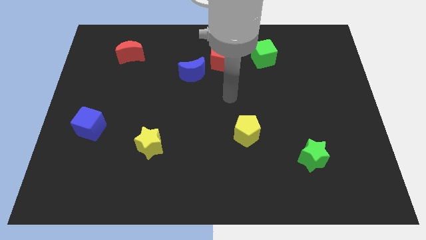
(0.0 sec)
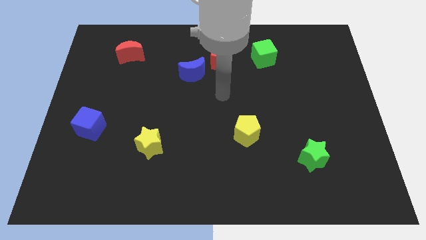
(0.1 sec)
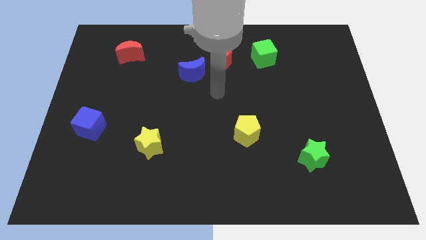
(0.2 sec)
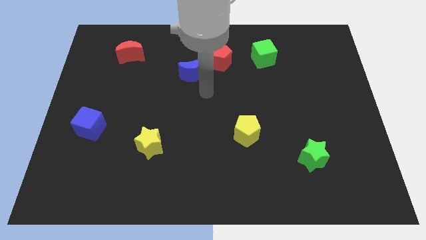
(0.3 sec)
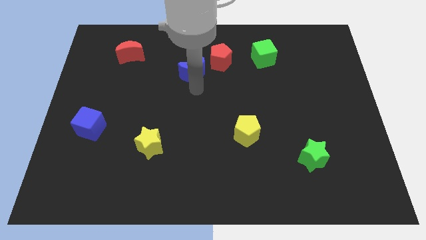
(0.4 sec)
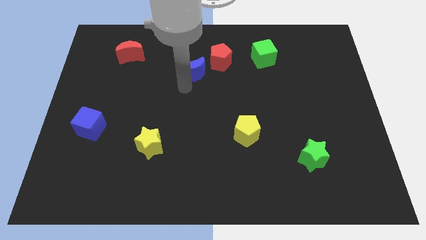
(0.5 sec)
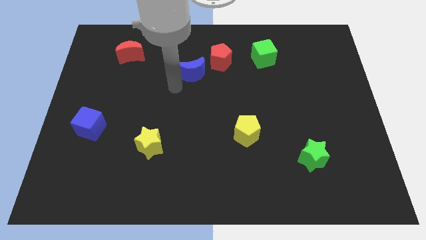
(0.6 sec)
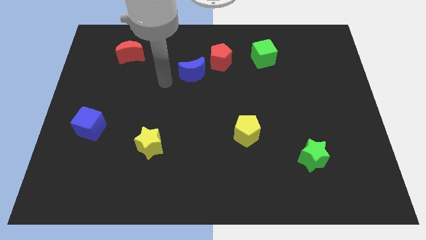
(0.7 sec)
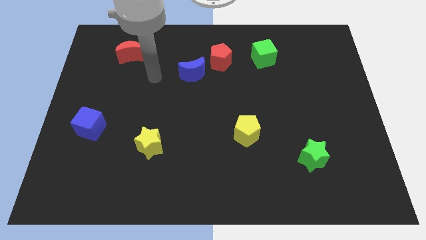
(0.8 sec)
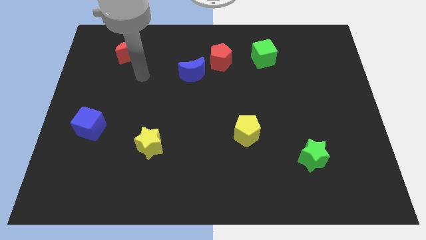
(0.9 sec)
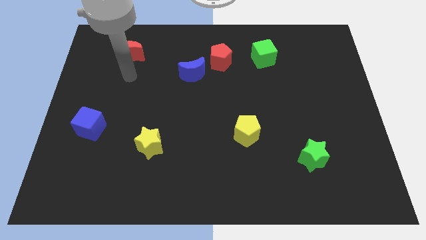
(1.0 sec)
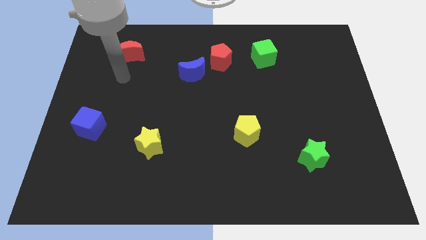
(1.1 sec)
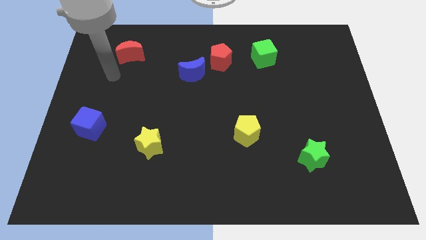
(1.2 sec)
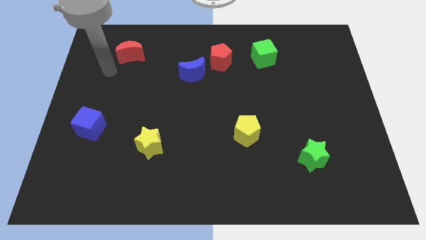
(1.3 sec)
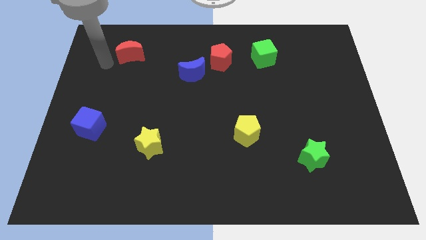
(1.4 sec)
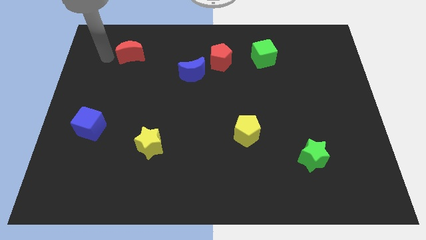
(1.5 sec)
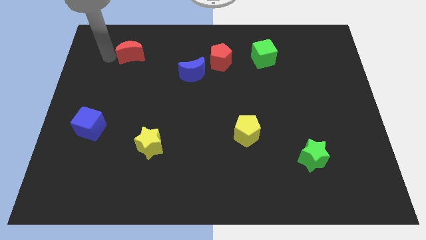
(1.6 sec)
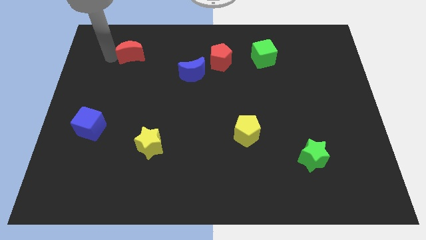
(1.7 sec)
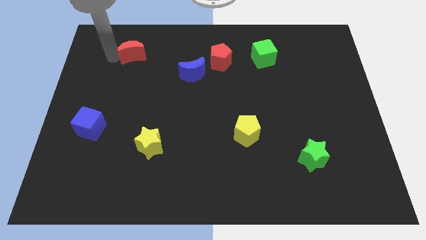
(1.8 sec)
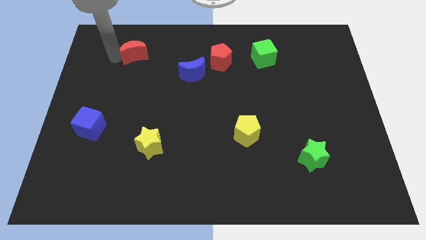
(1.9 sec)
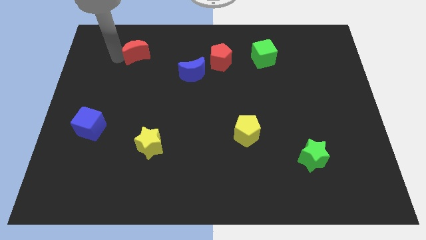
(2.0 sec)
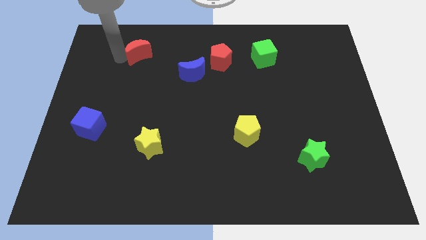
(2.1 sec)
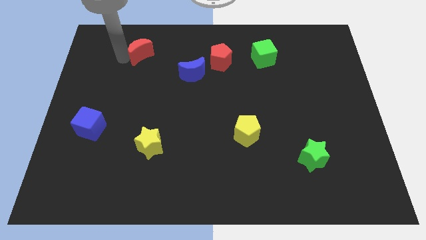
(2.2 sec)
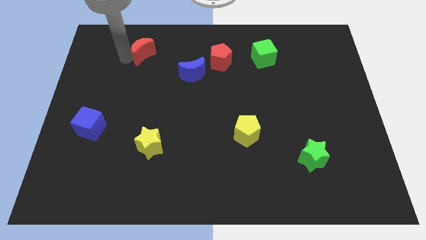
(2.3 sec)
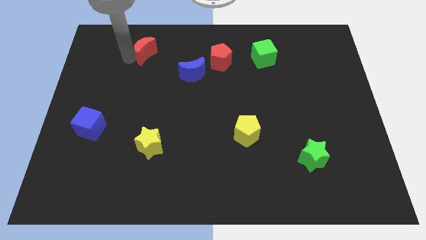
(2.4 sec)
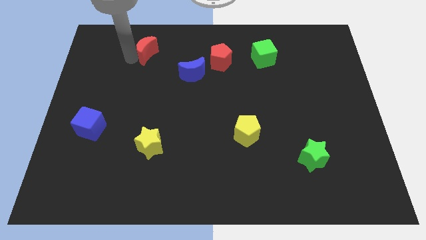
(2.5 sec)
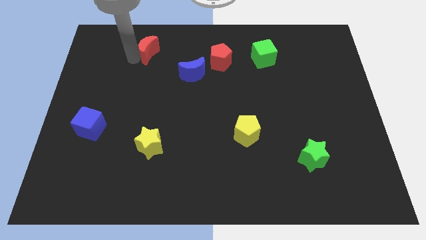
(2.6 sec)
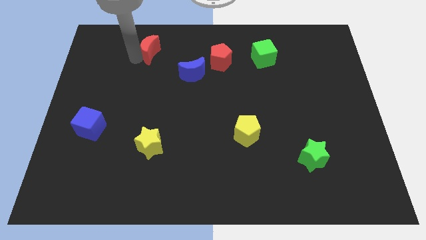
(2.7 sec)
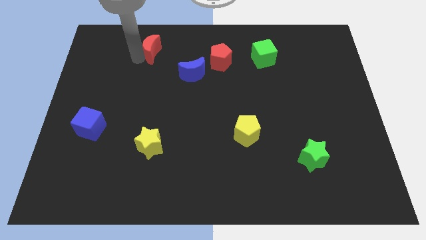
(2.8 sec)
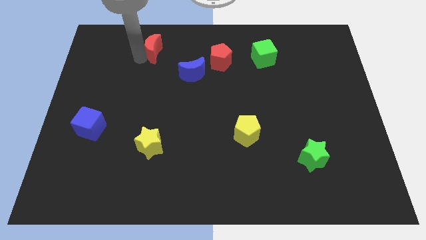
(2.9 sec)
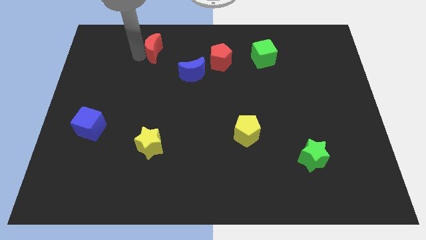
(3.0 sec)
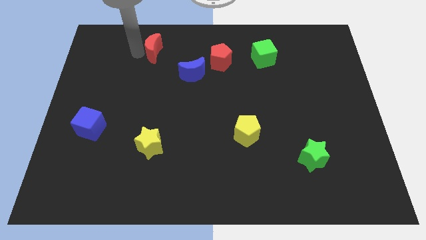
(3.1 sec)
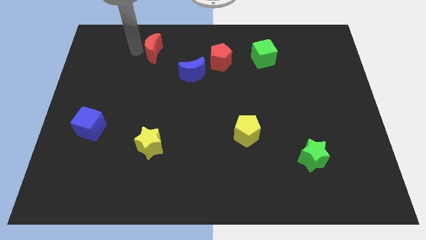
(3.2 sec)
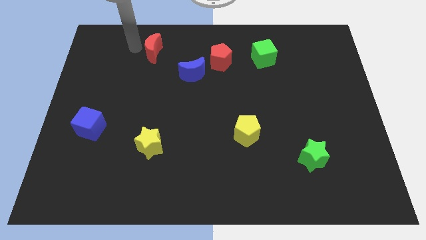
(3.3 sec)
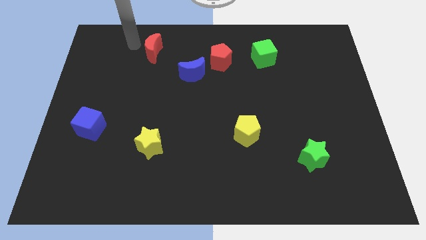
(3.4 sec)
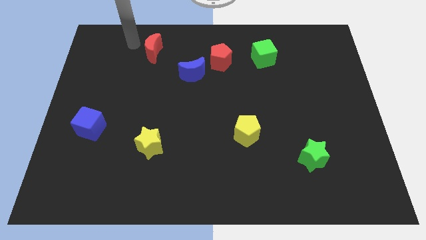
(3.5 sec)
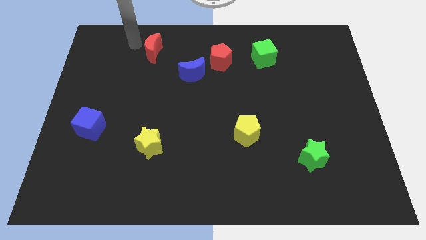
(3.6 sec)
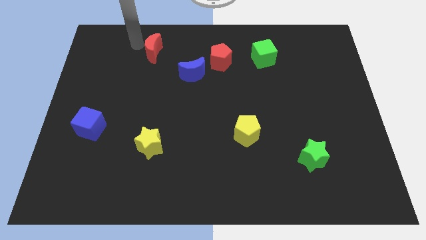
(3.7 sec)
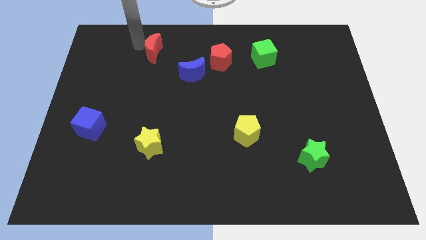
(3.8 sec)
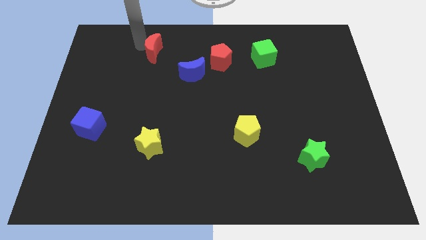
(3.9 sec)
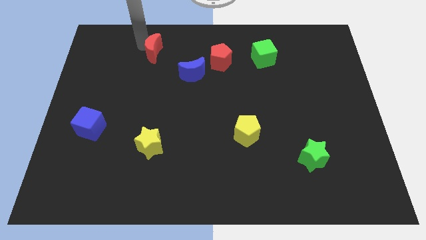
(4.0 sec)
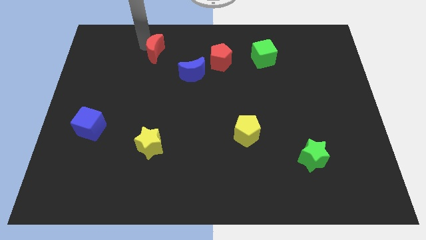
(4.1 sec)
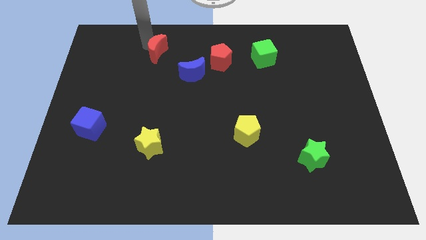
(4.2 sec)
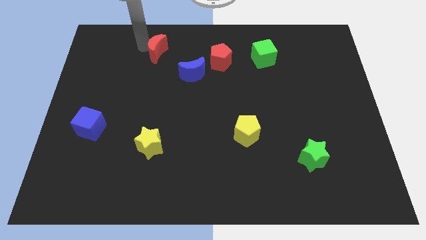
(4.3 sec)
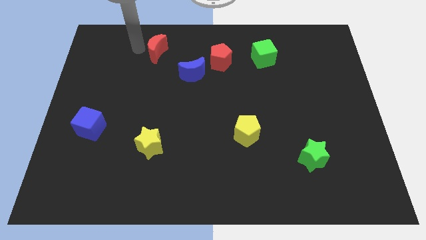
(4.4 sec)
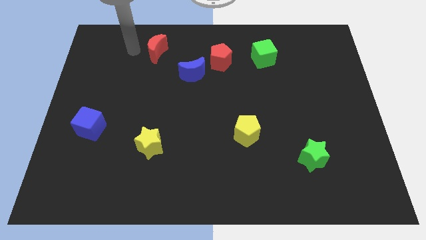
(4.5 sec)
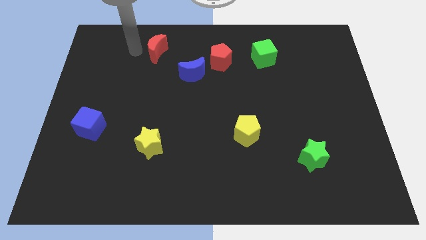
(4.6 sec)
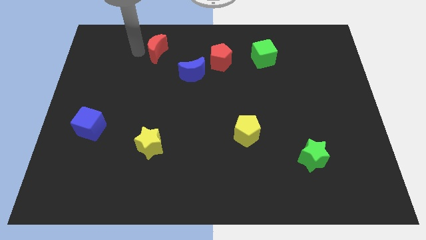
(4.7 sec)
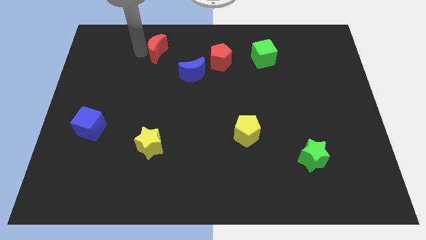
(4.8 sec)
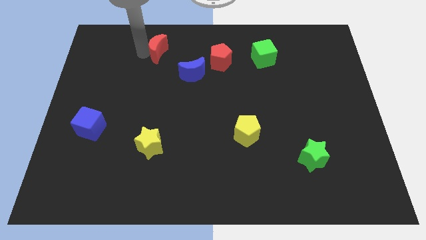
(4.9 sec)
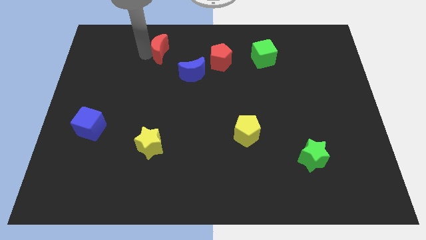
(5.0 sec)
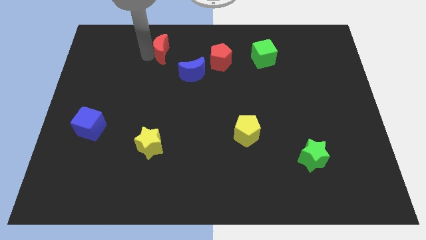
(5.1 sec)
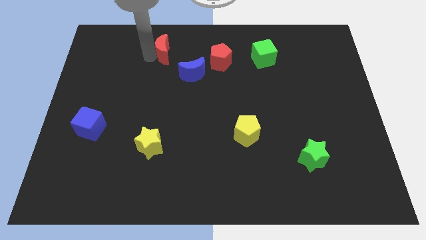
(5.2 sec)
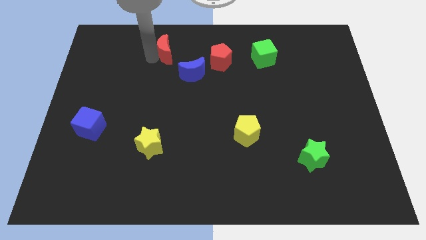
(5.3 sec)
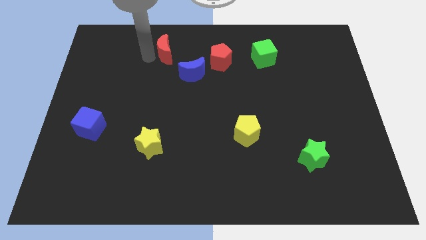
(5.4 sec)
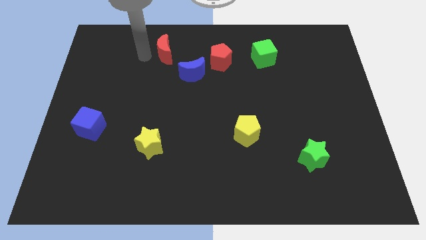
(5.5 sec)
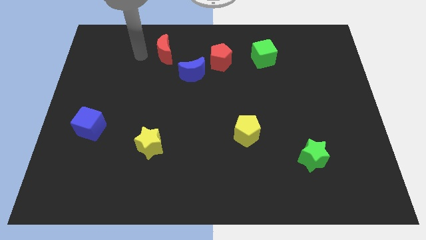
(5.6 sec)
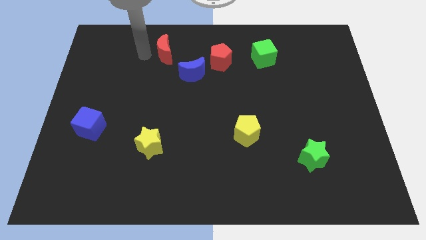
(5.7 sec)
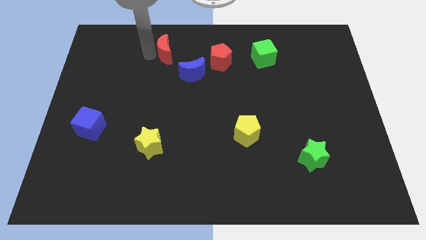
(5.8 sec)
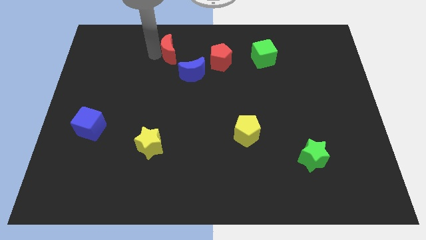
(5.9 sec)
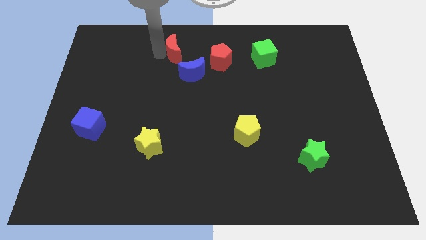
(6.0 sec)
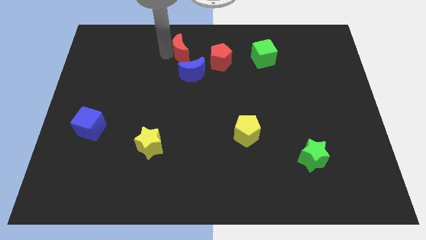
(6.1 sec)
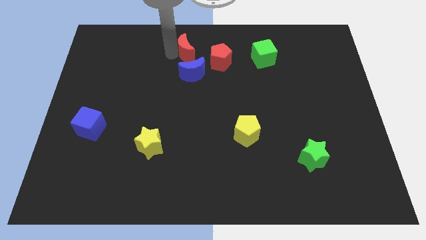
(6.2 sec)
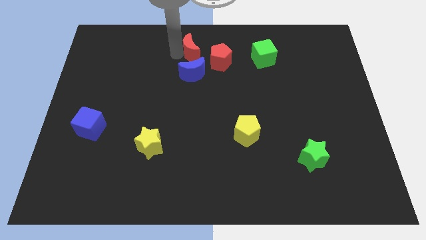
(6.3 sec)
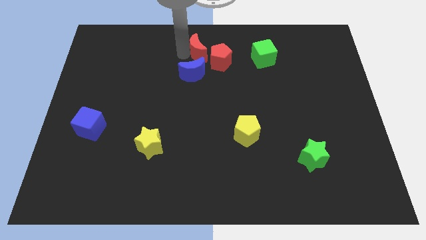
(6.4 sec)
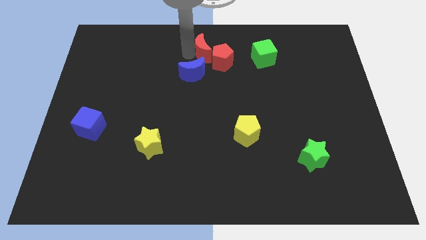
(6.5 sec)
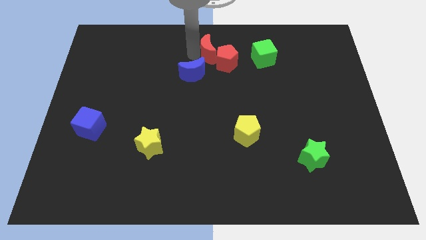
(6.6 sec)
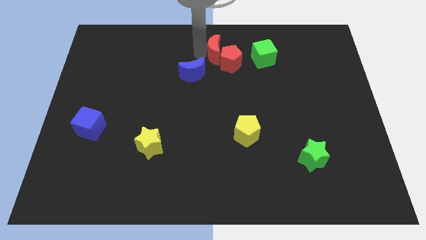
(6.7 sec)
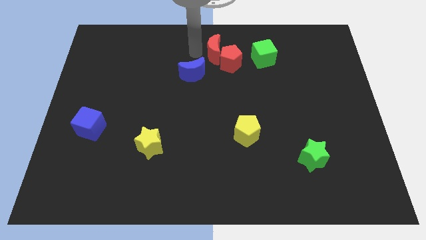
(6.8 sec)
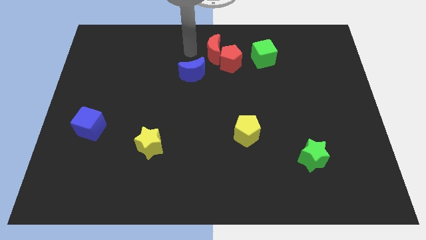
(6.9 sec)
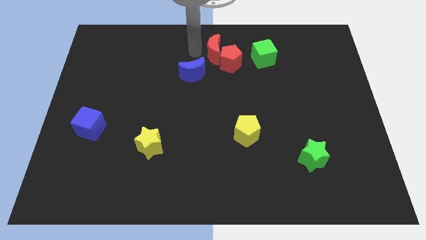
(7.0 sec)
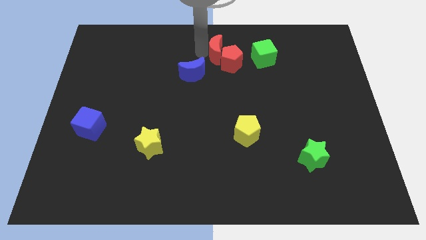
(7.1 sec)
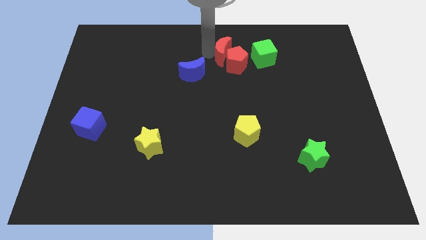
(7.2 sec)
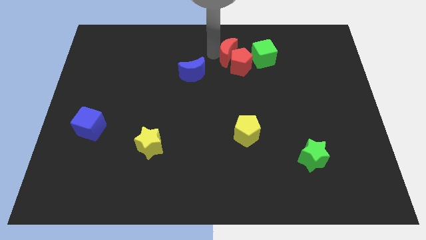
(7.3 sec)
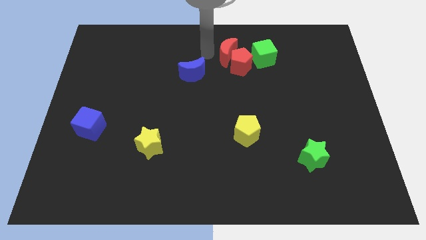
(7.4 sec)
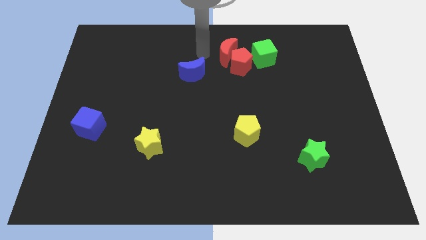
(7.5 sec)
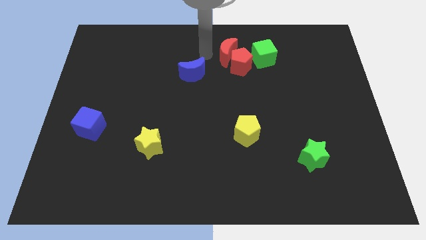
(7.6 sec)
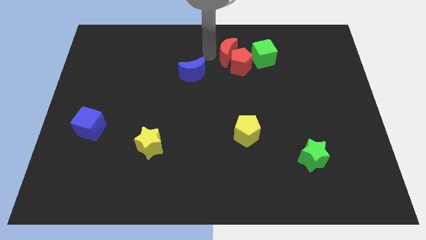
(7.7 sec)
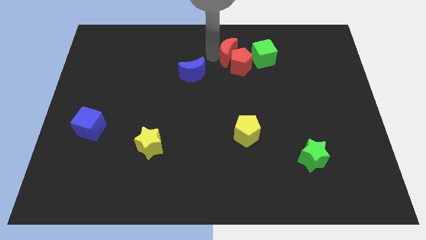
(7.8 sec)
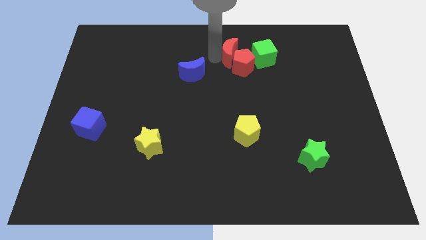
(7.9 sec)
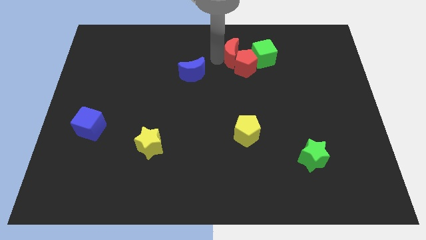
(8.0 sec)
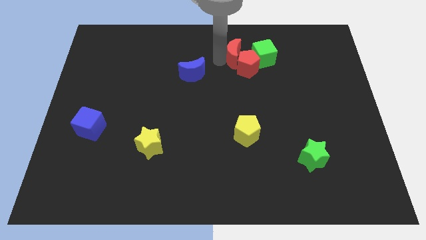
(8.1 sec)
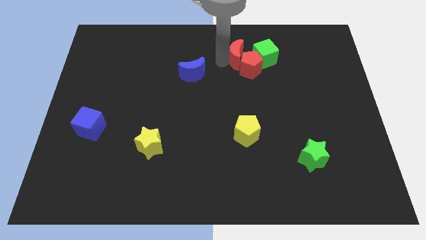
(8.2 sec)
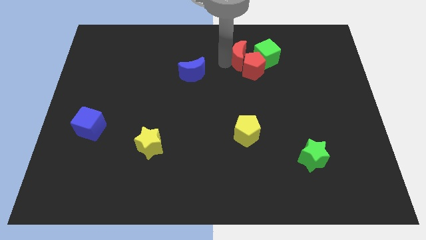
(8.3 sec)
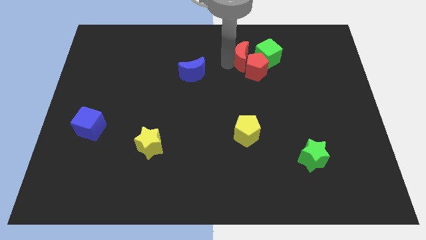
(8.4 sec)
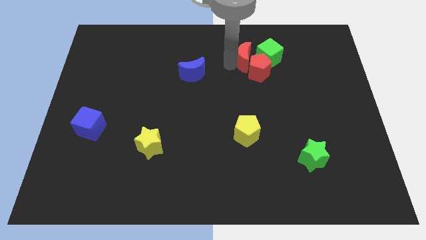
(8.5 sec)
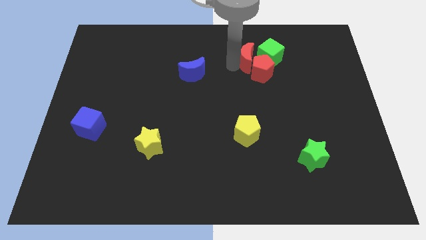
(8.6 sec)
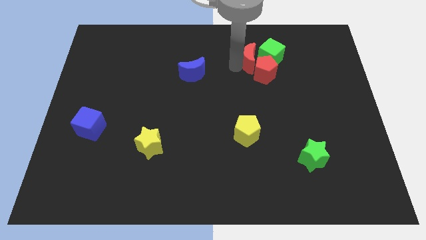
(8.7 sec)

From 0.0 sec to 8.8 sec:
put the red moon to the green cube
